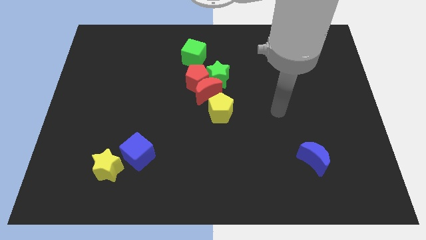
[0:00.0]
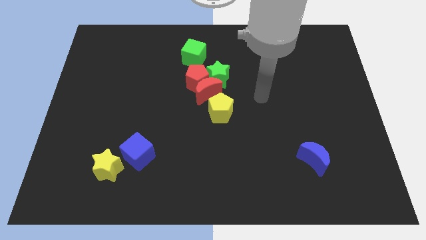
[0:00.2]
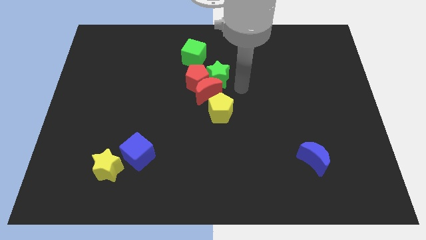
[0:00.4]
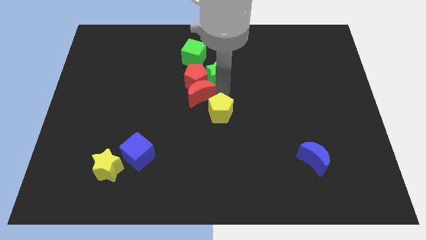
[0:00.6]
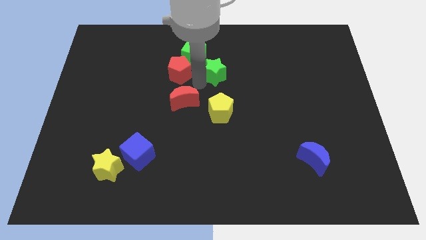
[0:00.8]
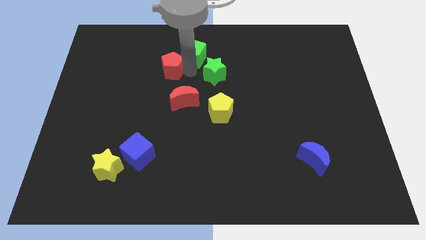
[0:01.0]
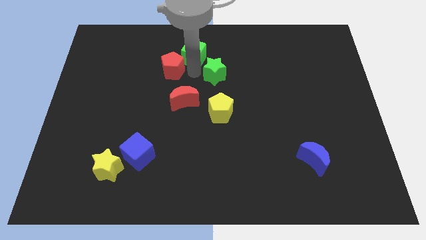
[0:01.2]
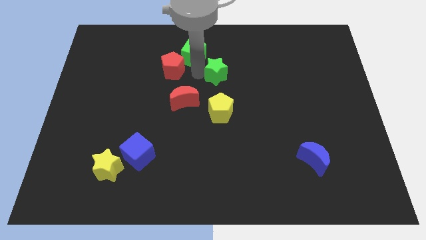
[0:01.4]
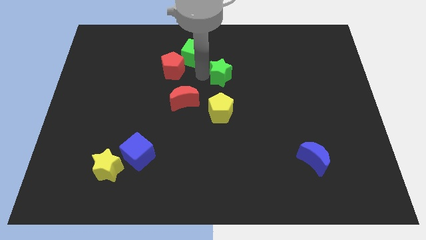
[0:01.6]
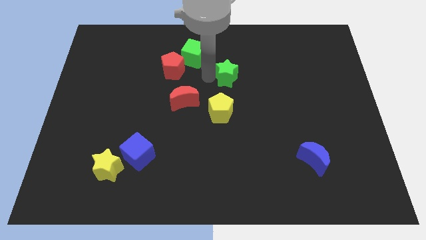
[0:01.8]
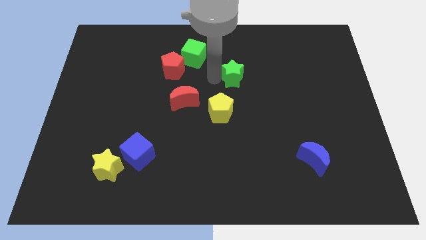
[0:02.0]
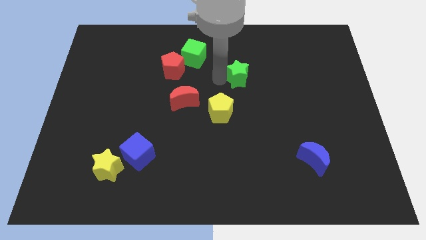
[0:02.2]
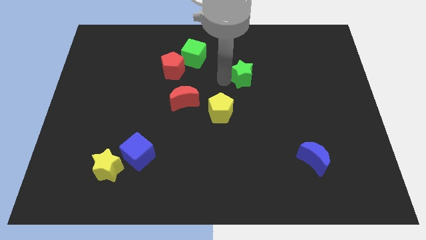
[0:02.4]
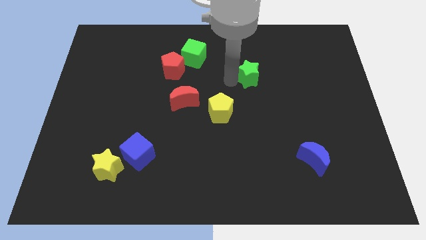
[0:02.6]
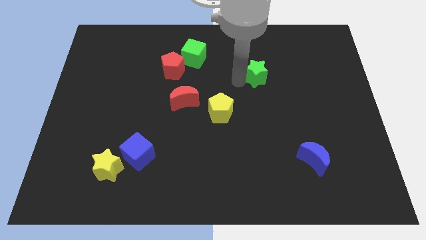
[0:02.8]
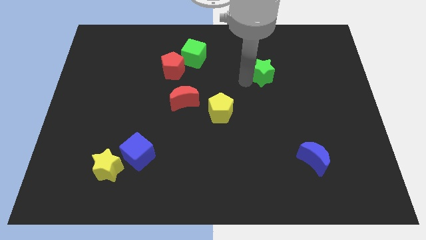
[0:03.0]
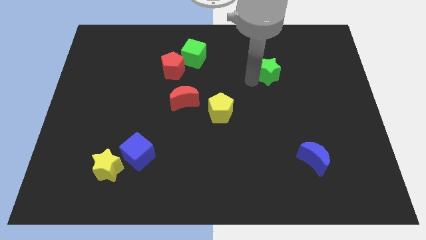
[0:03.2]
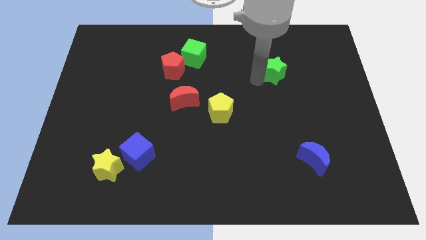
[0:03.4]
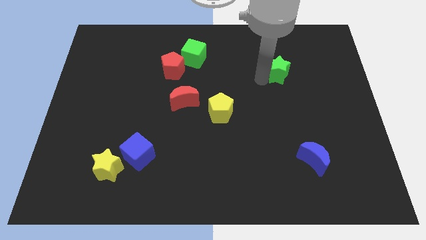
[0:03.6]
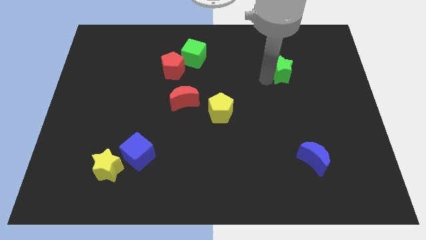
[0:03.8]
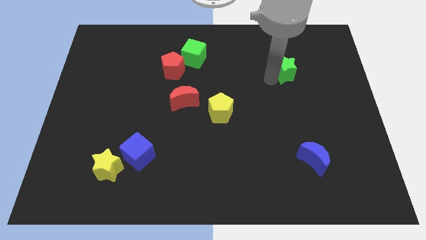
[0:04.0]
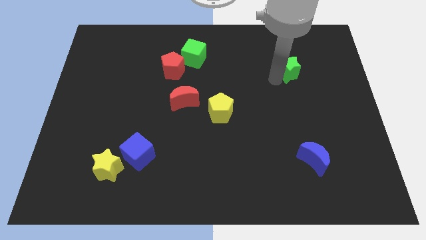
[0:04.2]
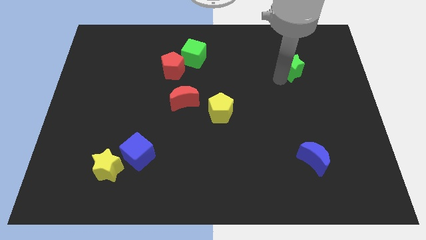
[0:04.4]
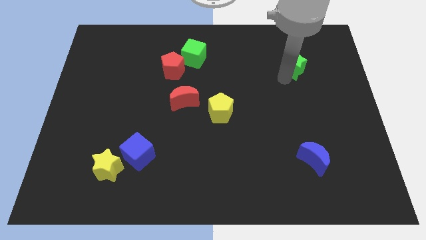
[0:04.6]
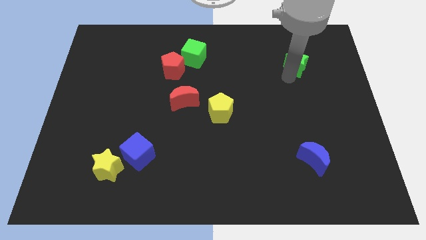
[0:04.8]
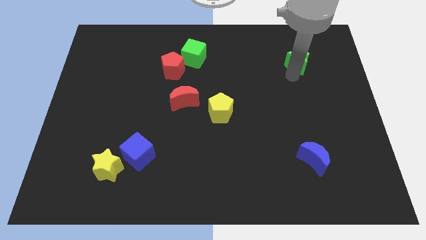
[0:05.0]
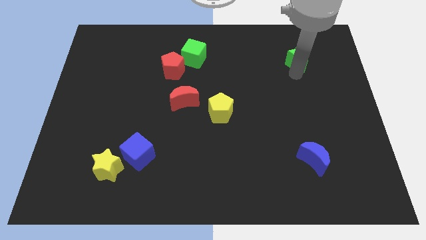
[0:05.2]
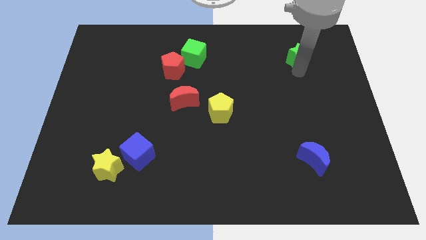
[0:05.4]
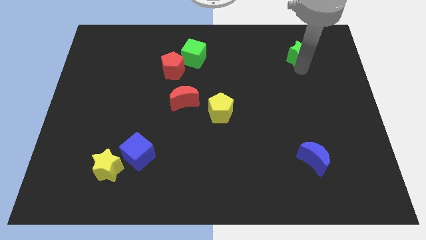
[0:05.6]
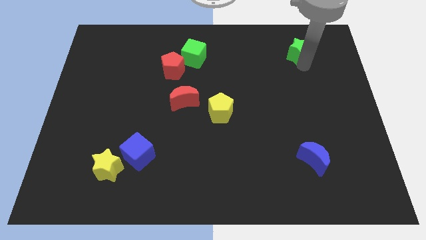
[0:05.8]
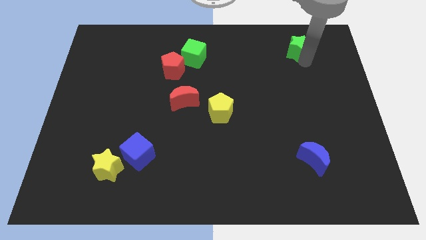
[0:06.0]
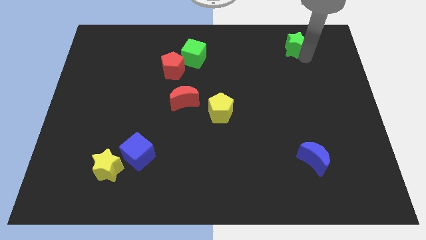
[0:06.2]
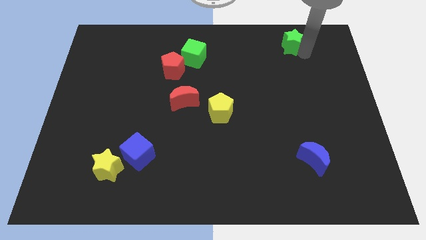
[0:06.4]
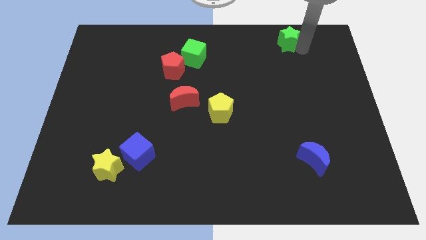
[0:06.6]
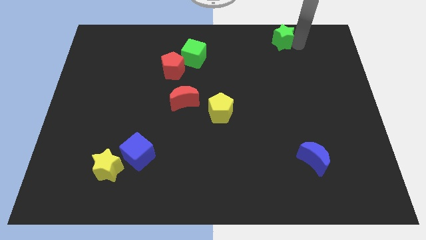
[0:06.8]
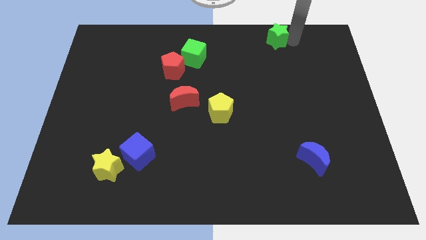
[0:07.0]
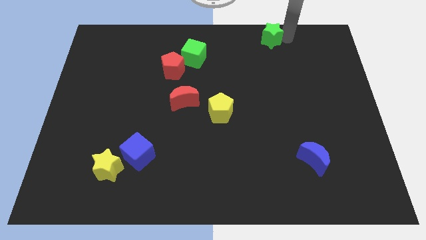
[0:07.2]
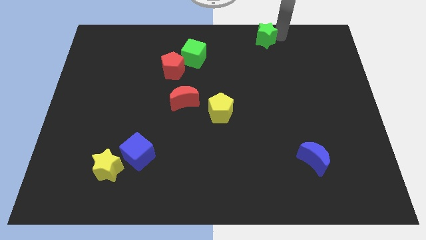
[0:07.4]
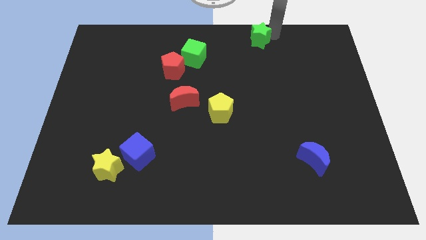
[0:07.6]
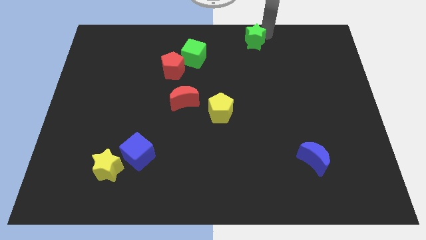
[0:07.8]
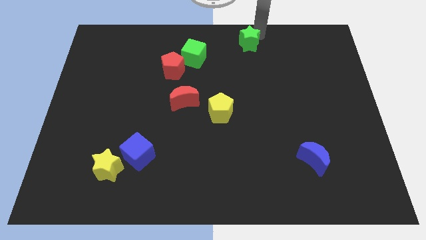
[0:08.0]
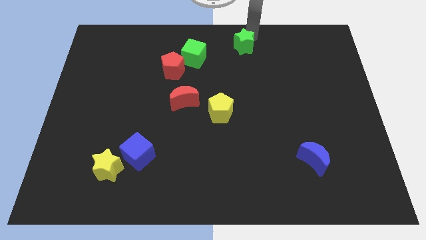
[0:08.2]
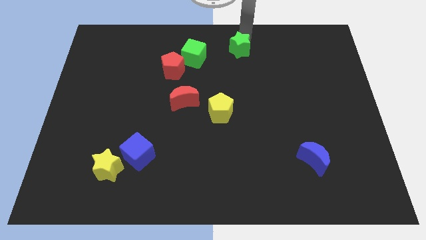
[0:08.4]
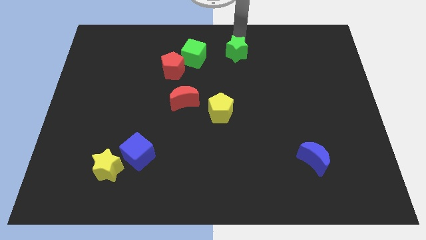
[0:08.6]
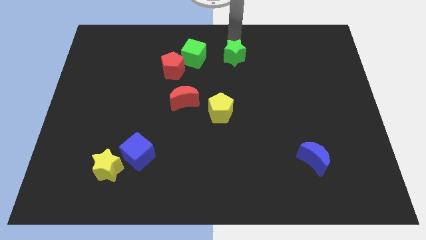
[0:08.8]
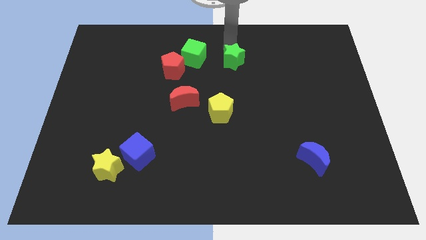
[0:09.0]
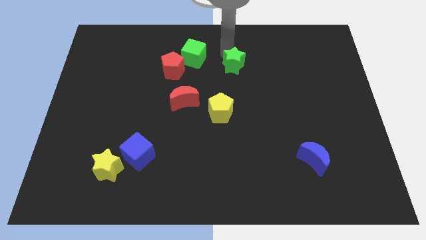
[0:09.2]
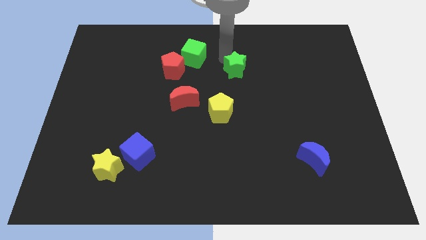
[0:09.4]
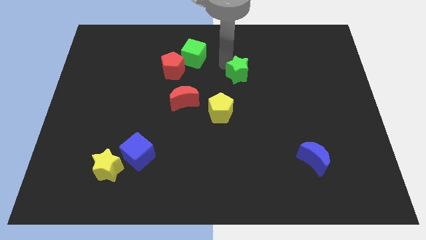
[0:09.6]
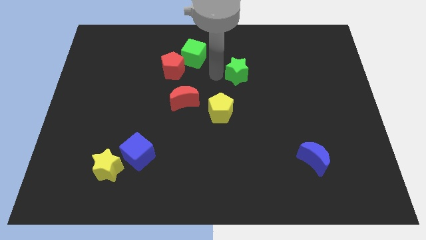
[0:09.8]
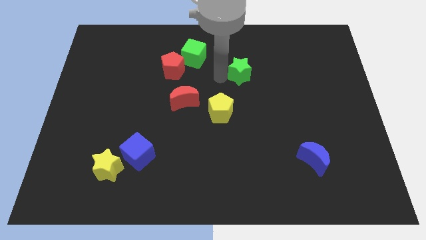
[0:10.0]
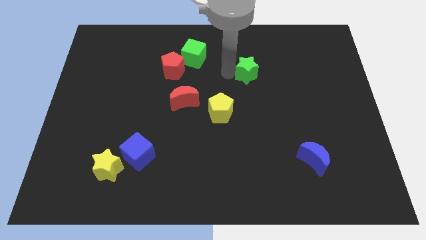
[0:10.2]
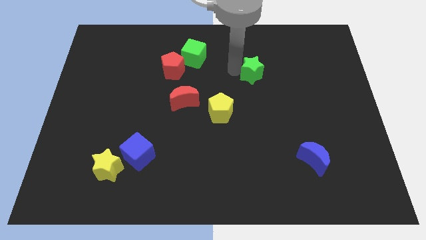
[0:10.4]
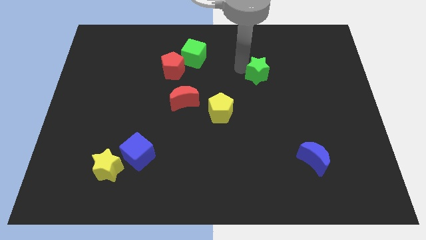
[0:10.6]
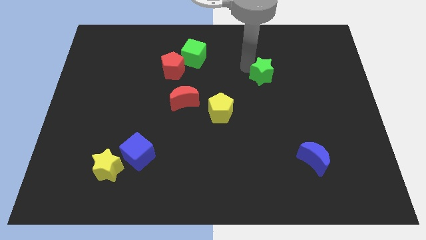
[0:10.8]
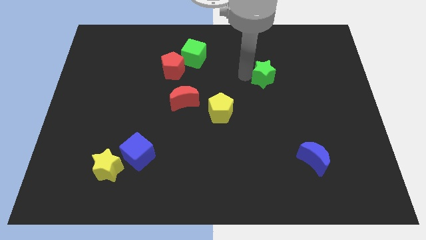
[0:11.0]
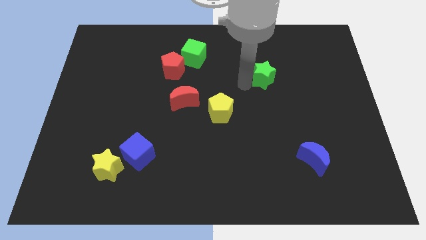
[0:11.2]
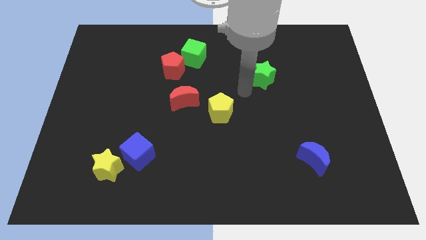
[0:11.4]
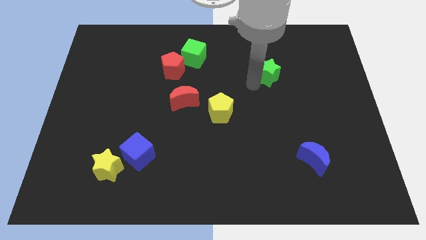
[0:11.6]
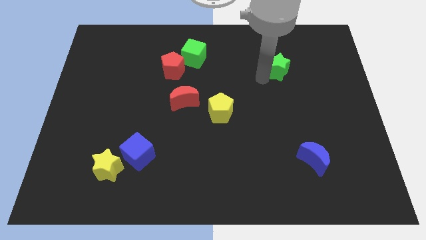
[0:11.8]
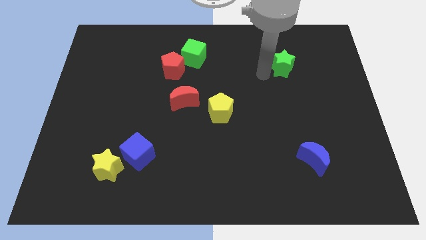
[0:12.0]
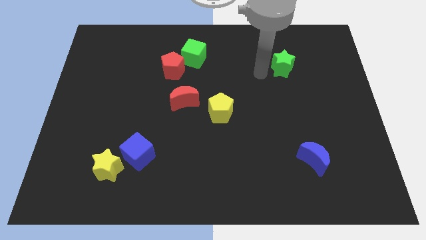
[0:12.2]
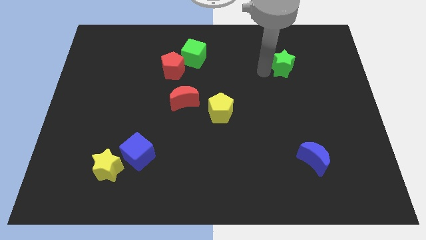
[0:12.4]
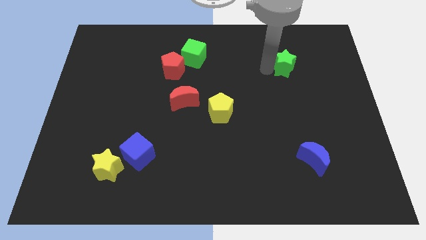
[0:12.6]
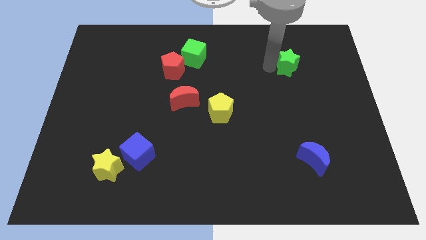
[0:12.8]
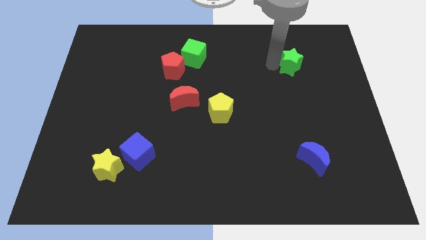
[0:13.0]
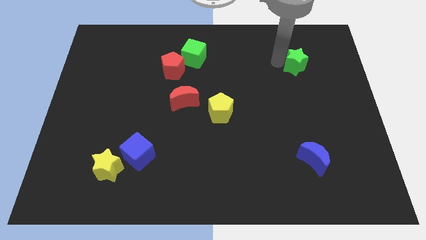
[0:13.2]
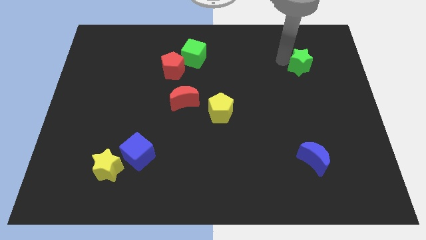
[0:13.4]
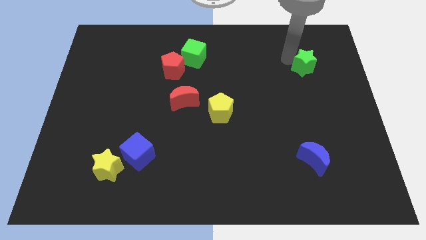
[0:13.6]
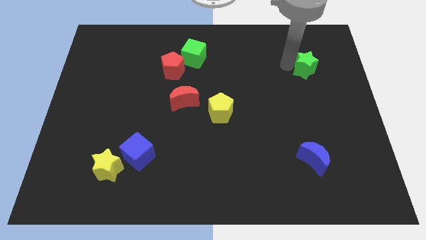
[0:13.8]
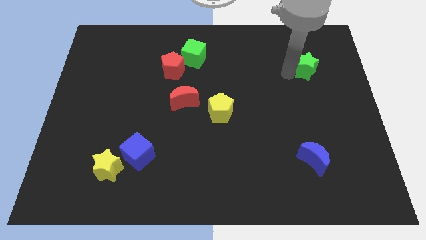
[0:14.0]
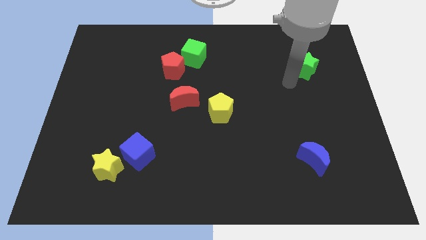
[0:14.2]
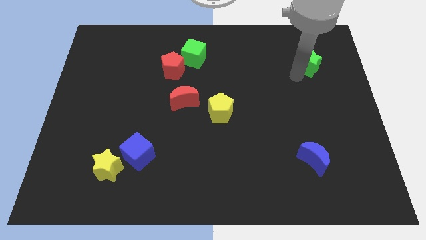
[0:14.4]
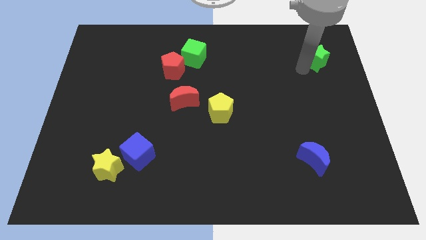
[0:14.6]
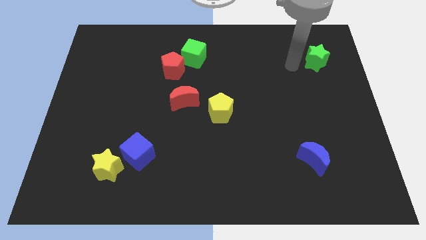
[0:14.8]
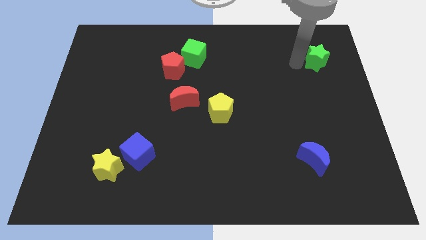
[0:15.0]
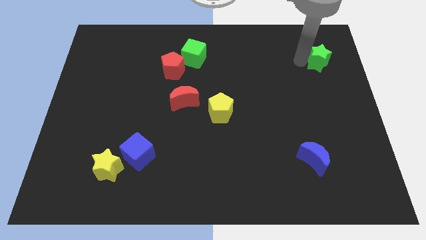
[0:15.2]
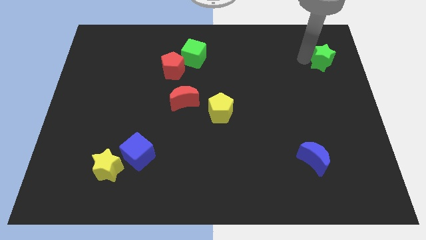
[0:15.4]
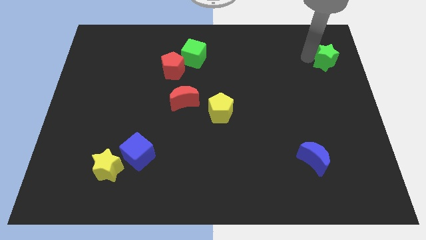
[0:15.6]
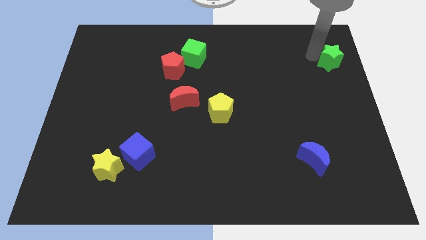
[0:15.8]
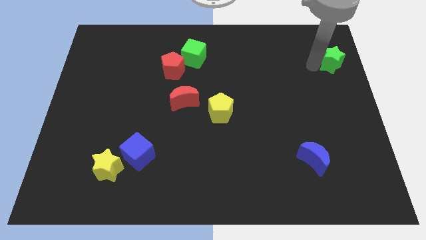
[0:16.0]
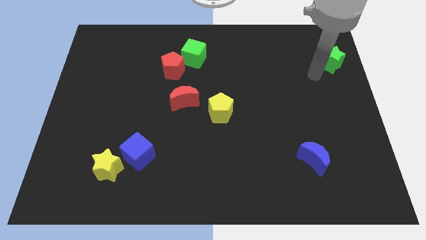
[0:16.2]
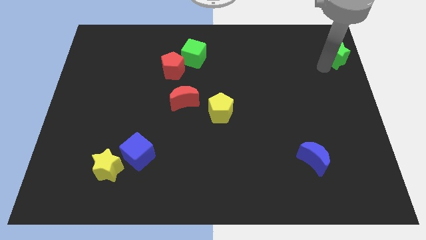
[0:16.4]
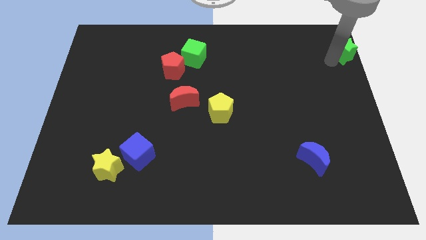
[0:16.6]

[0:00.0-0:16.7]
move the green star to the top right of the board
